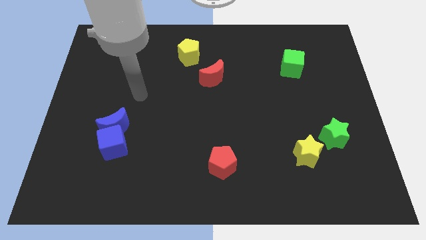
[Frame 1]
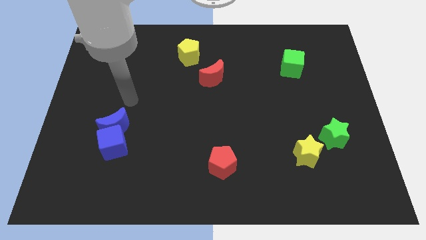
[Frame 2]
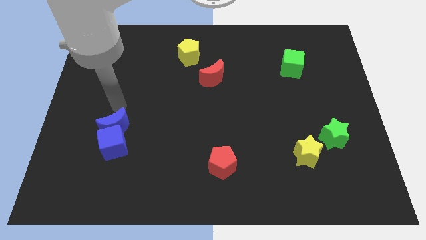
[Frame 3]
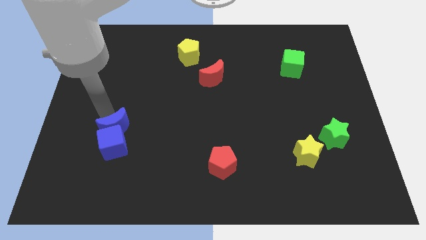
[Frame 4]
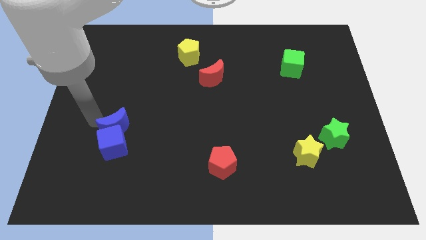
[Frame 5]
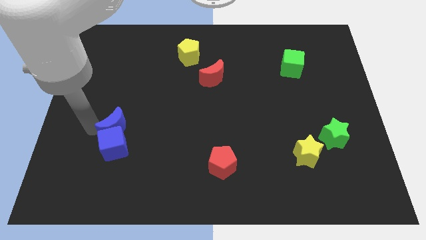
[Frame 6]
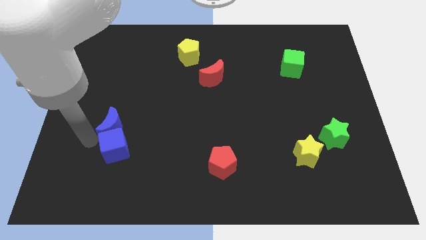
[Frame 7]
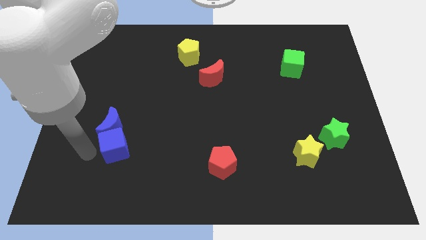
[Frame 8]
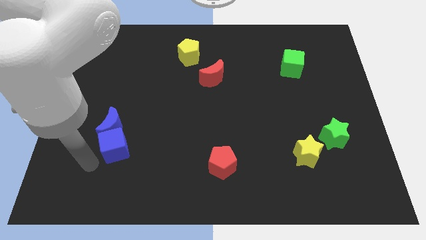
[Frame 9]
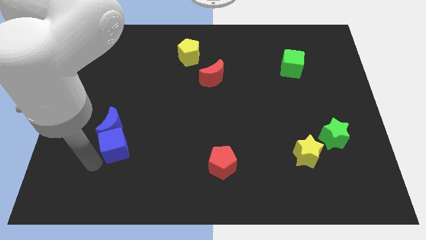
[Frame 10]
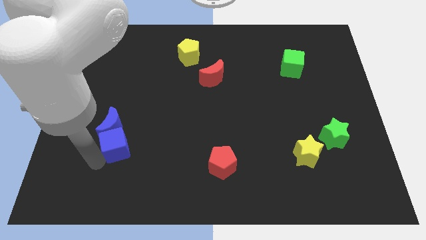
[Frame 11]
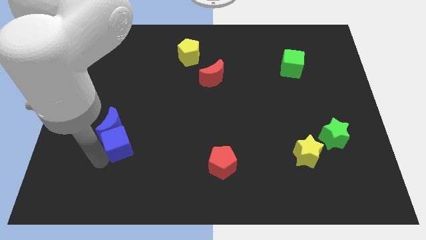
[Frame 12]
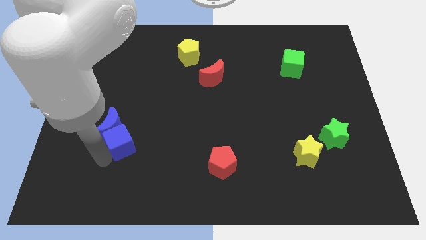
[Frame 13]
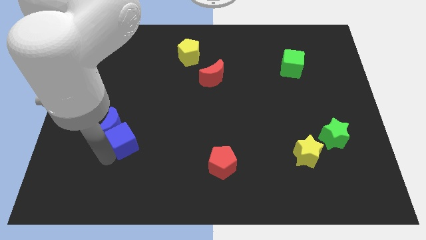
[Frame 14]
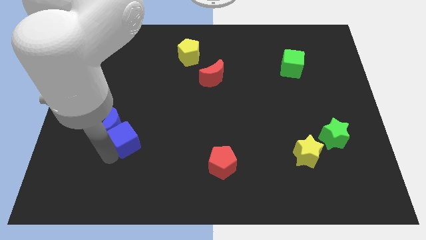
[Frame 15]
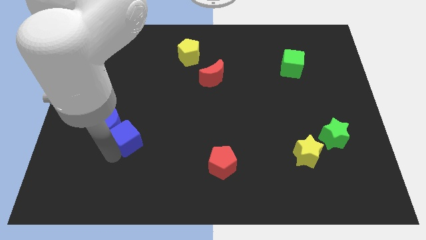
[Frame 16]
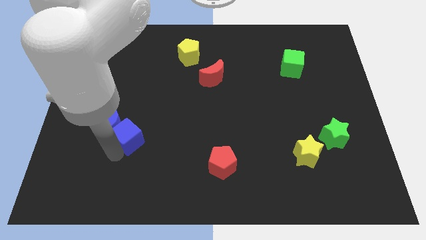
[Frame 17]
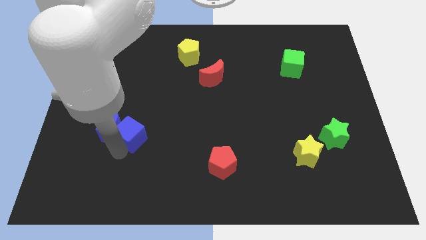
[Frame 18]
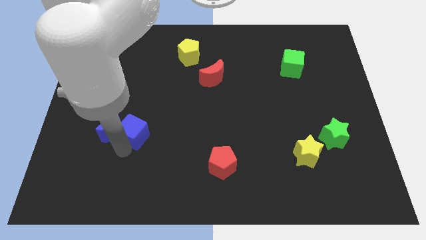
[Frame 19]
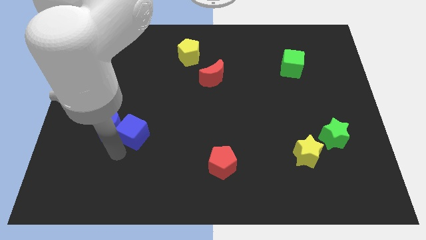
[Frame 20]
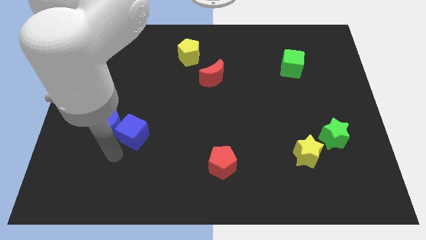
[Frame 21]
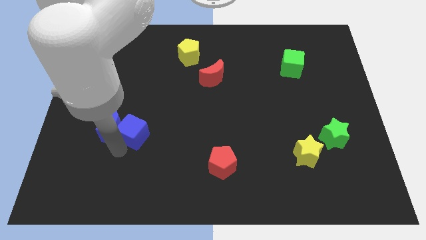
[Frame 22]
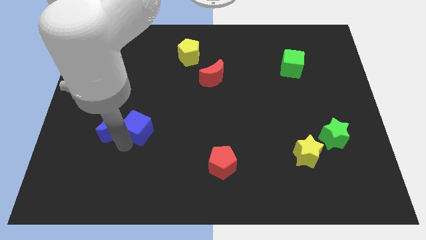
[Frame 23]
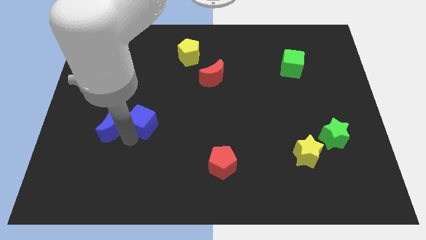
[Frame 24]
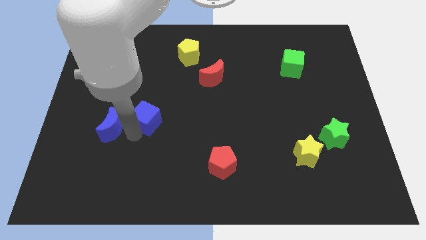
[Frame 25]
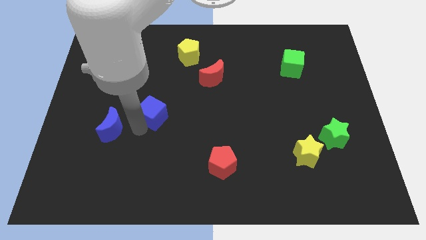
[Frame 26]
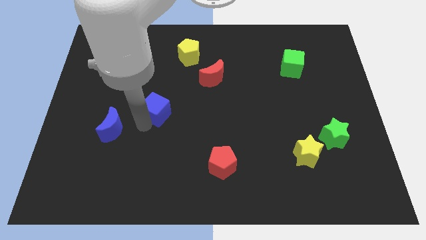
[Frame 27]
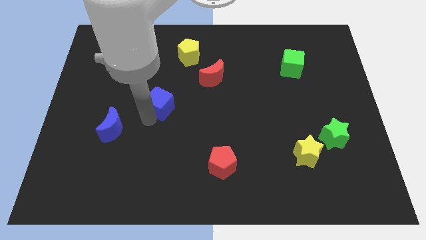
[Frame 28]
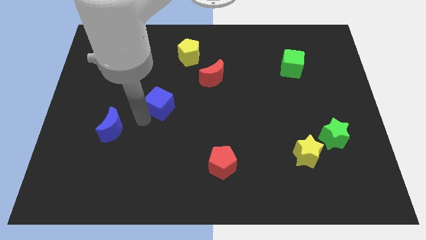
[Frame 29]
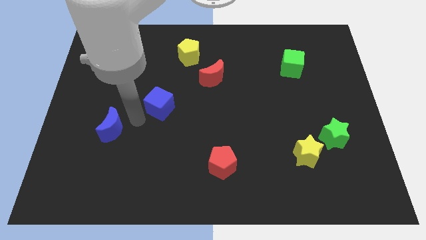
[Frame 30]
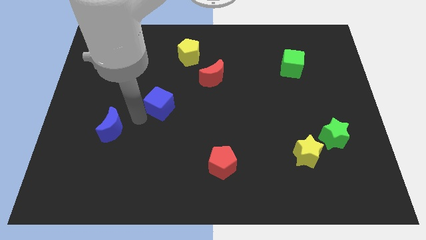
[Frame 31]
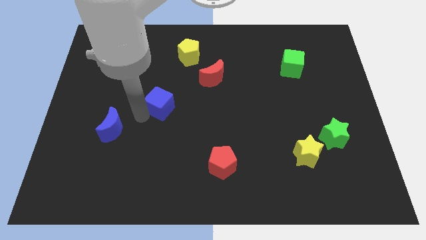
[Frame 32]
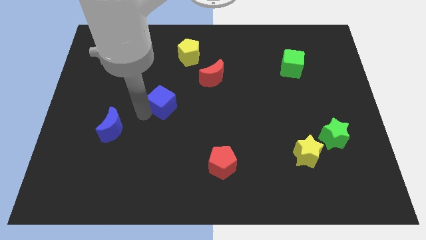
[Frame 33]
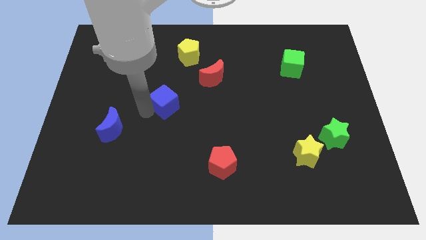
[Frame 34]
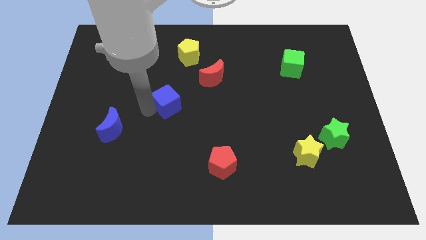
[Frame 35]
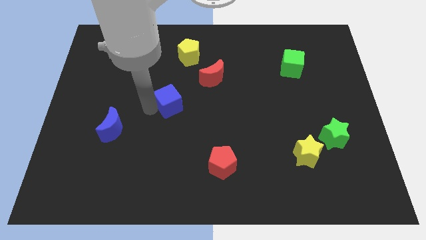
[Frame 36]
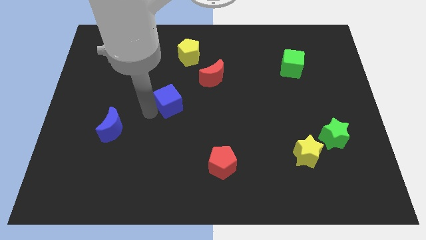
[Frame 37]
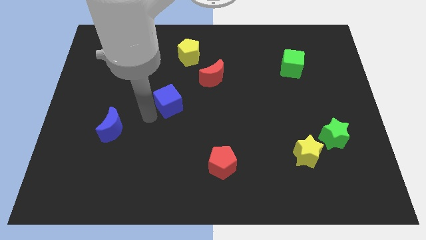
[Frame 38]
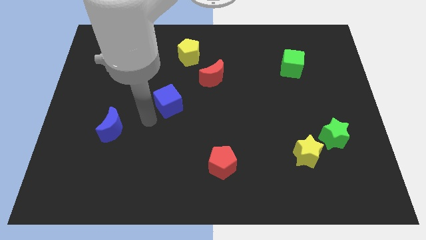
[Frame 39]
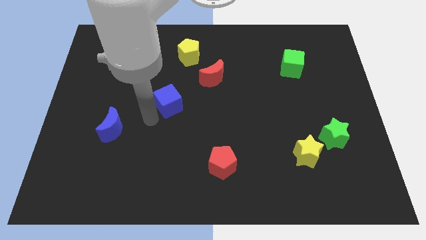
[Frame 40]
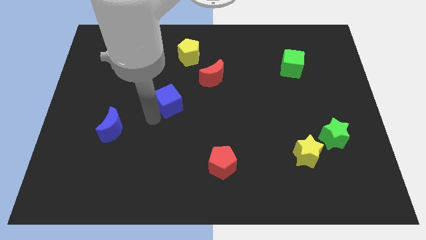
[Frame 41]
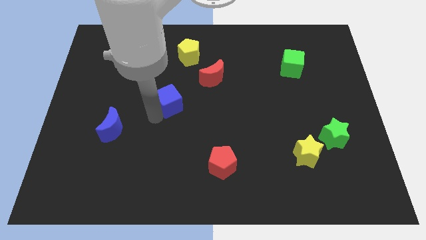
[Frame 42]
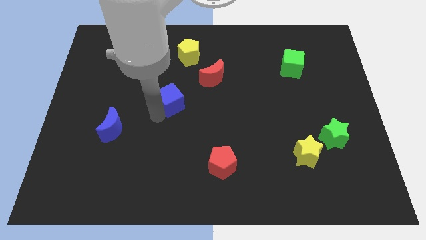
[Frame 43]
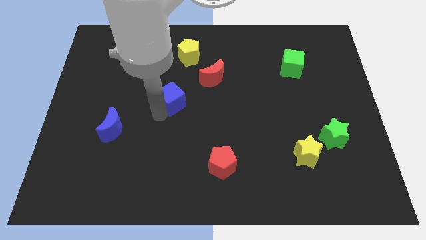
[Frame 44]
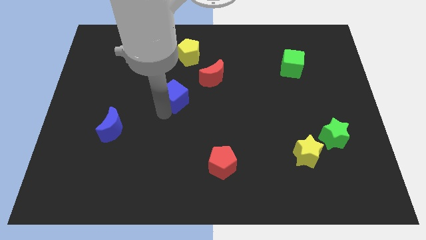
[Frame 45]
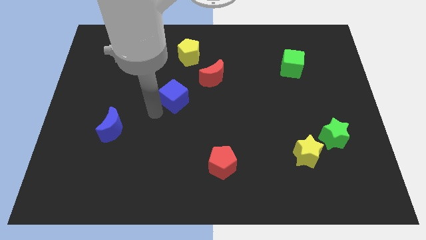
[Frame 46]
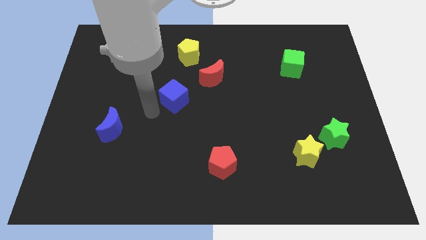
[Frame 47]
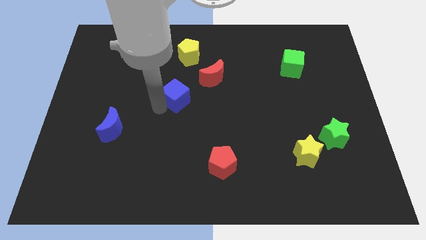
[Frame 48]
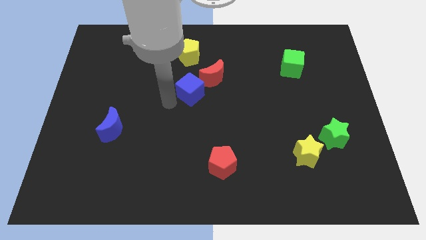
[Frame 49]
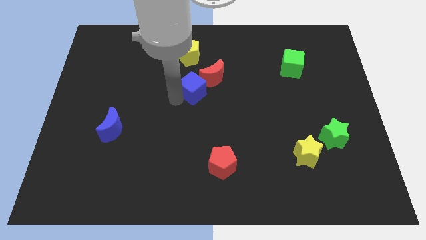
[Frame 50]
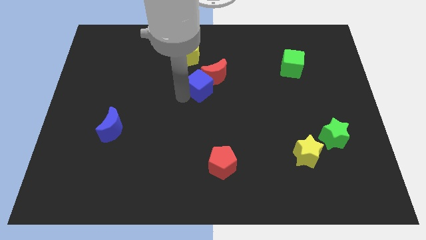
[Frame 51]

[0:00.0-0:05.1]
put the blue cube next to the red moon

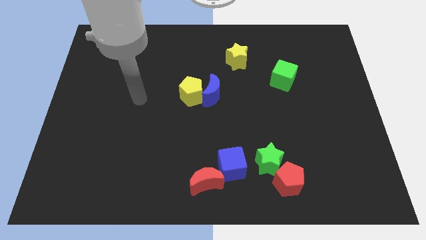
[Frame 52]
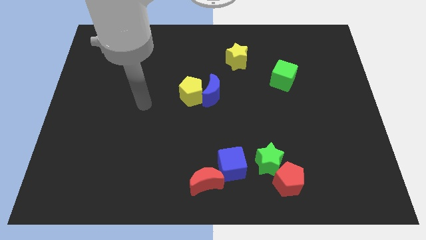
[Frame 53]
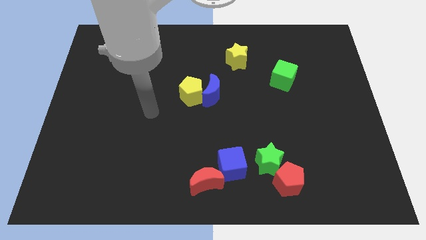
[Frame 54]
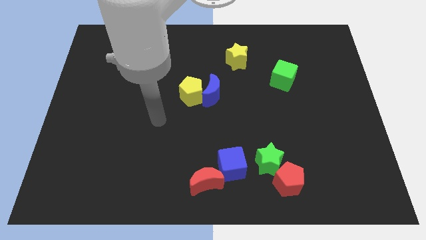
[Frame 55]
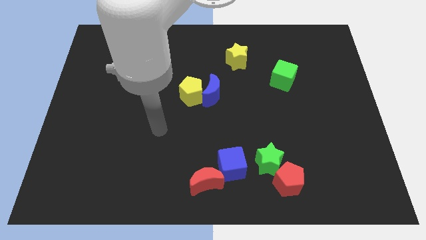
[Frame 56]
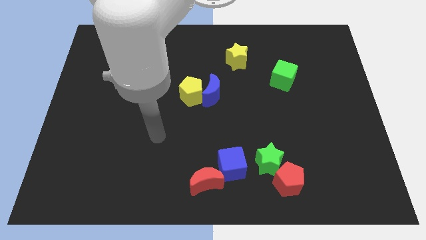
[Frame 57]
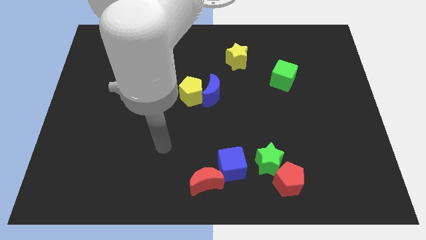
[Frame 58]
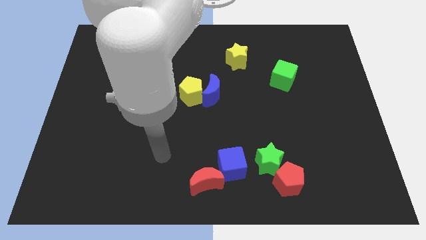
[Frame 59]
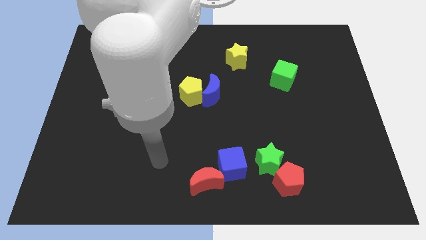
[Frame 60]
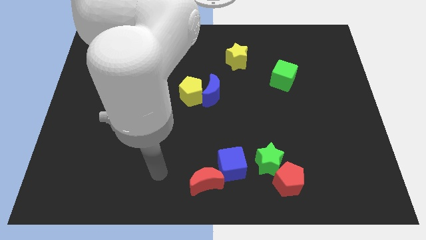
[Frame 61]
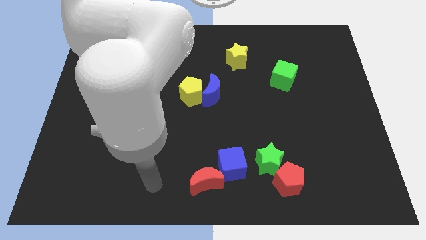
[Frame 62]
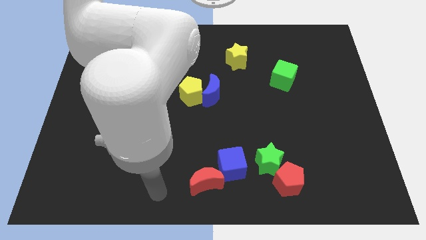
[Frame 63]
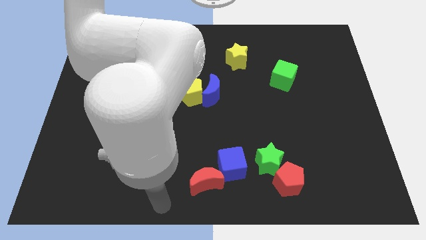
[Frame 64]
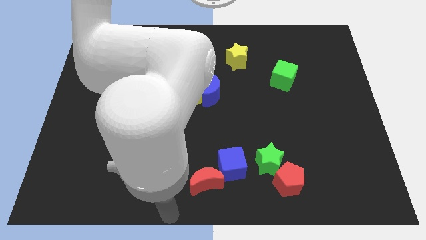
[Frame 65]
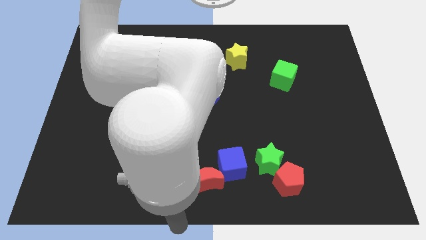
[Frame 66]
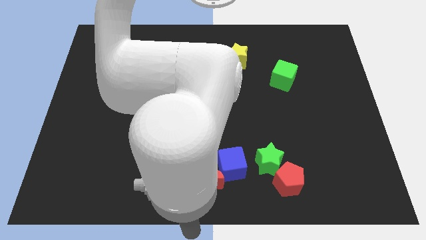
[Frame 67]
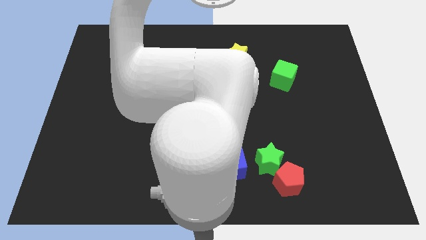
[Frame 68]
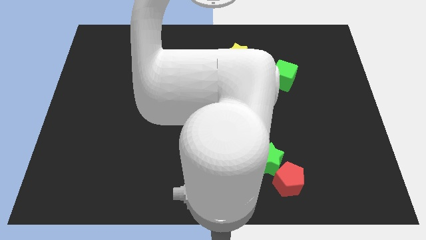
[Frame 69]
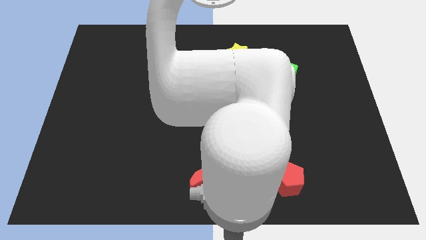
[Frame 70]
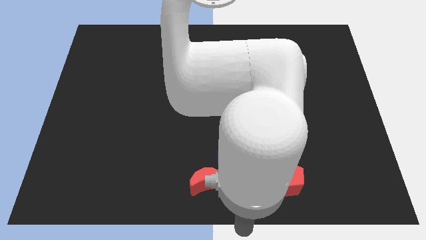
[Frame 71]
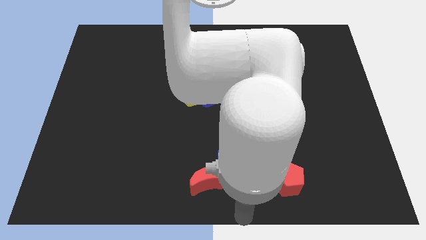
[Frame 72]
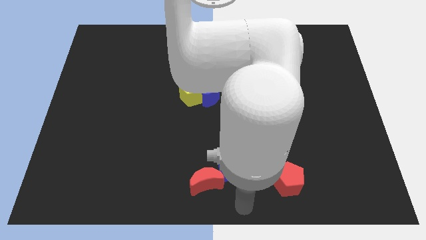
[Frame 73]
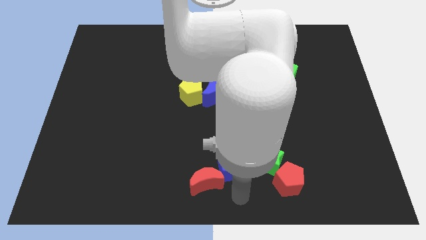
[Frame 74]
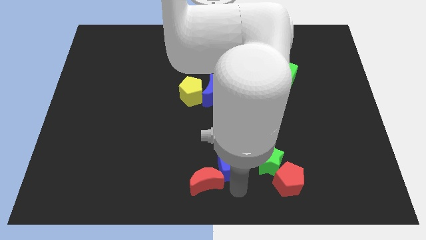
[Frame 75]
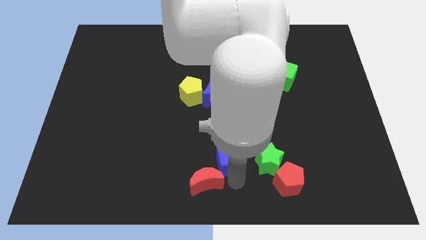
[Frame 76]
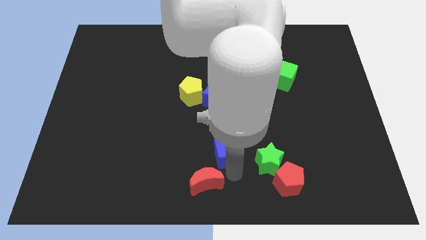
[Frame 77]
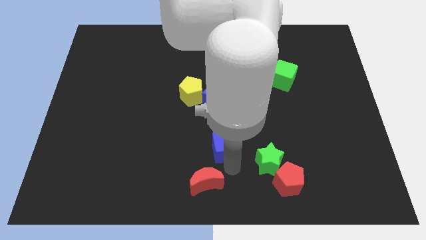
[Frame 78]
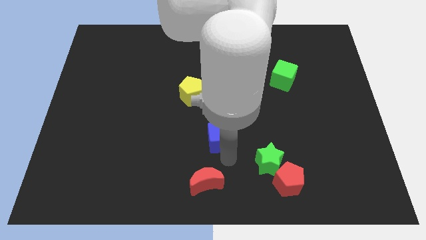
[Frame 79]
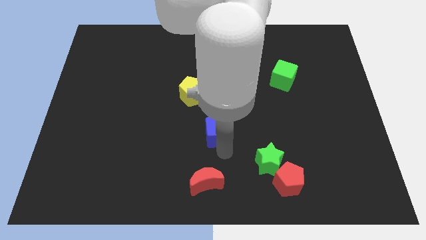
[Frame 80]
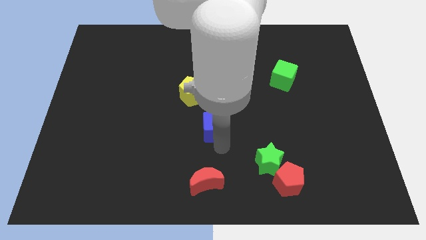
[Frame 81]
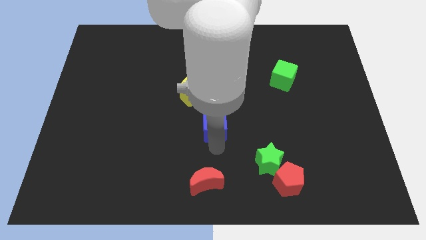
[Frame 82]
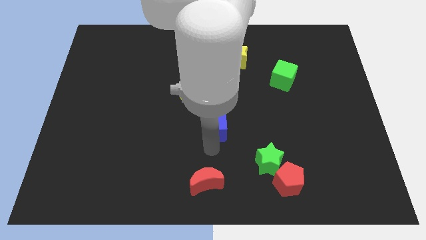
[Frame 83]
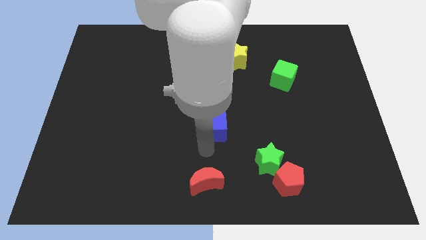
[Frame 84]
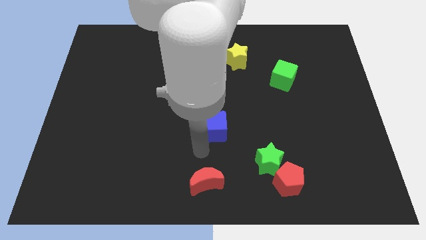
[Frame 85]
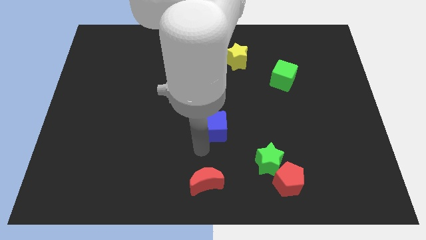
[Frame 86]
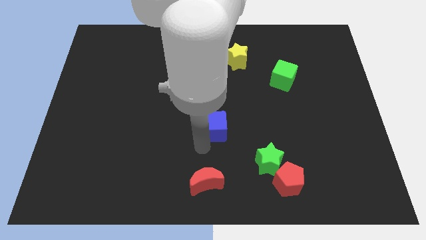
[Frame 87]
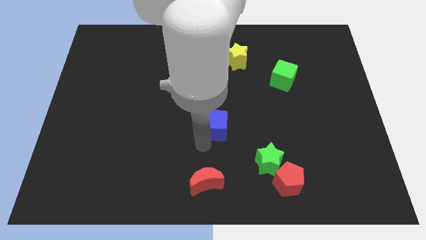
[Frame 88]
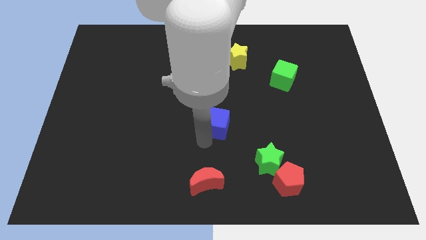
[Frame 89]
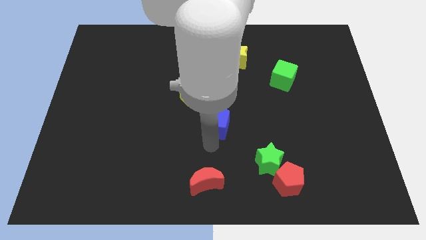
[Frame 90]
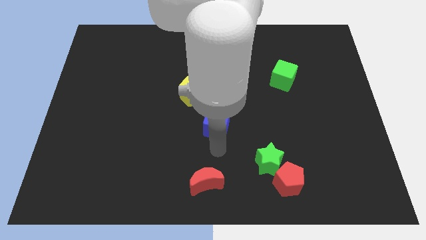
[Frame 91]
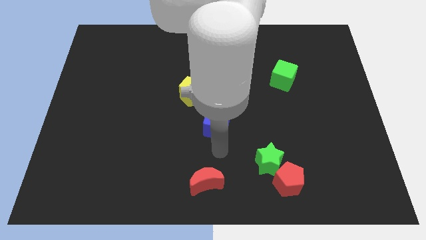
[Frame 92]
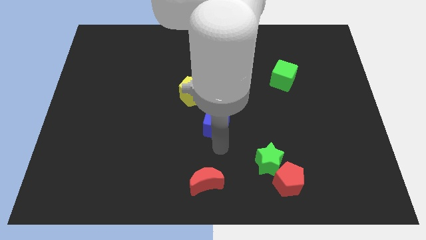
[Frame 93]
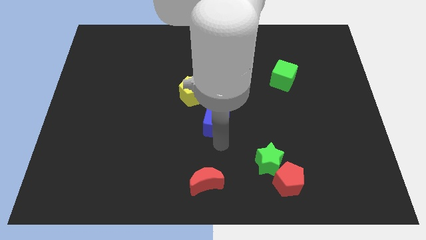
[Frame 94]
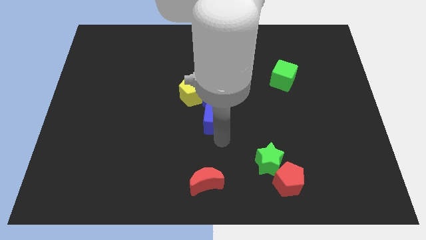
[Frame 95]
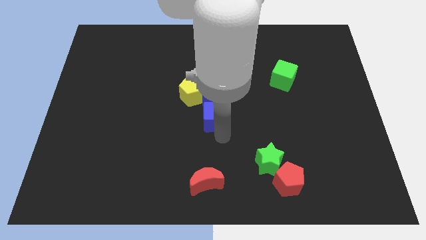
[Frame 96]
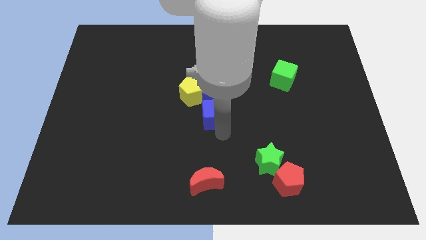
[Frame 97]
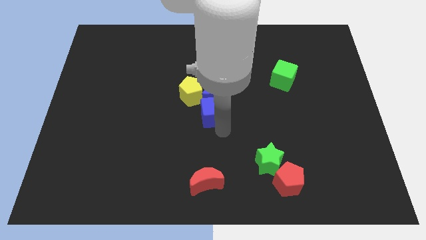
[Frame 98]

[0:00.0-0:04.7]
slide the blue cube towards the blue moon
